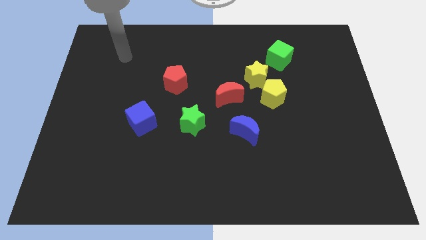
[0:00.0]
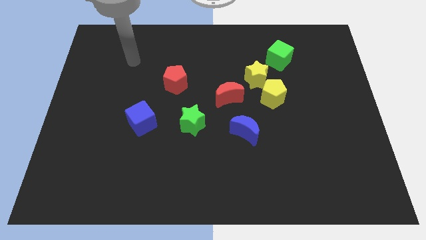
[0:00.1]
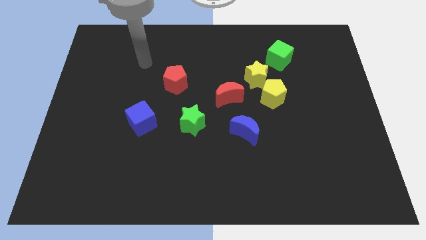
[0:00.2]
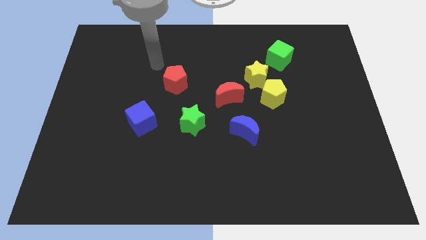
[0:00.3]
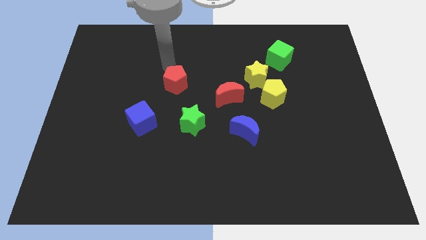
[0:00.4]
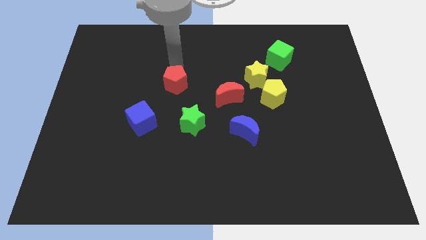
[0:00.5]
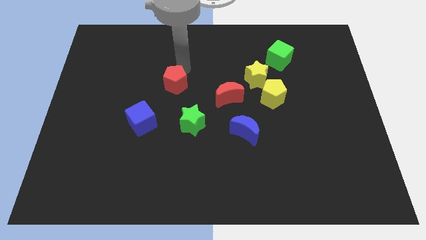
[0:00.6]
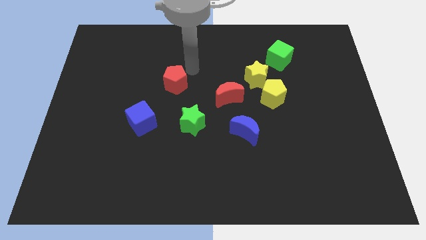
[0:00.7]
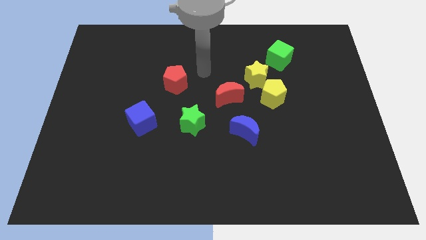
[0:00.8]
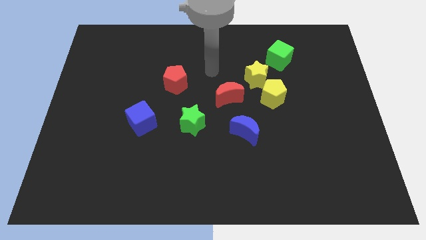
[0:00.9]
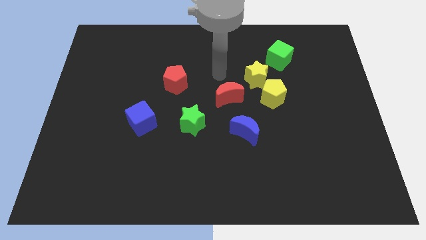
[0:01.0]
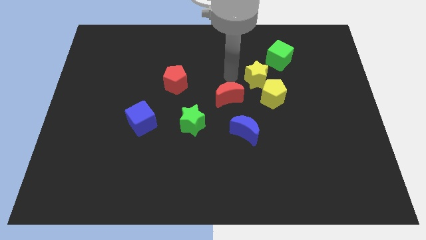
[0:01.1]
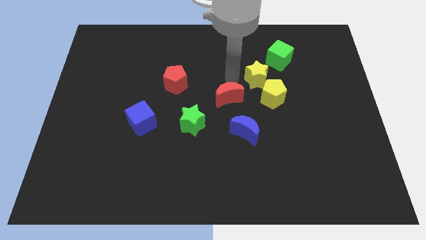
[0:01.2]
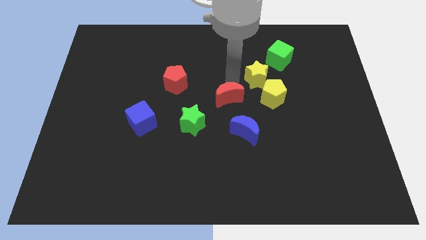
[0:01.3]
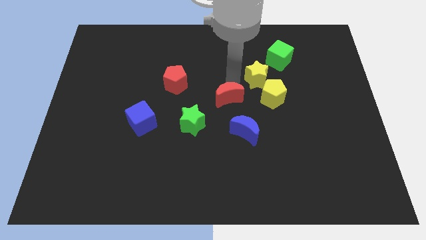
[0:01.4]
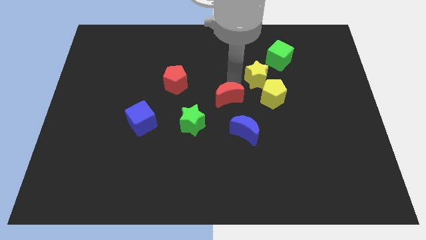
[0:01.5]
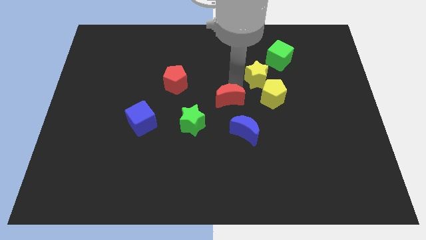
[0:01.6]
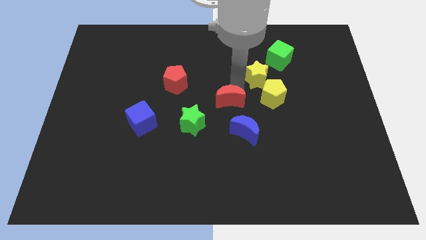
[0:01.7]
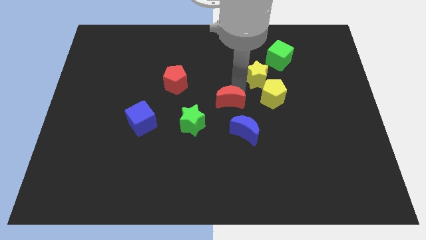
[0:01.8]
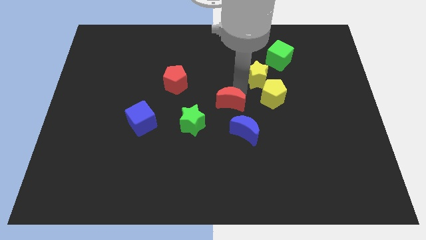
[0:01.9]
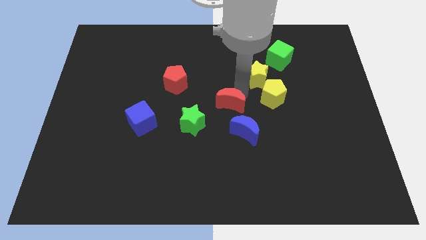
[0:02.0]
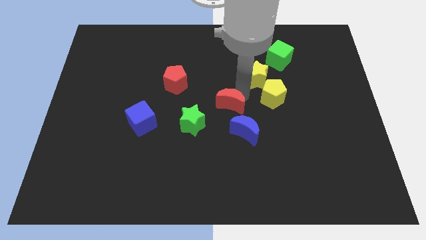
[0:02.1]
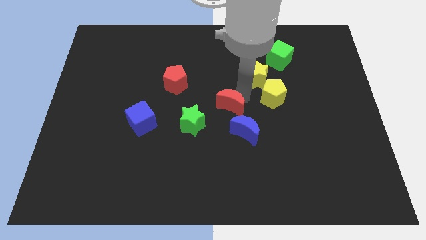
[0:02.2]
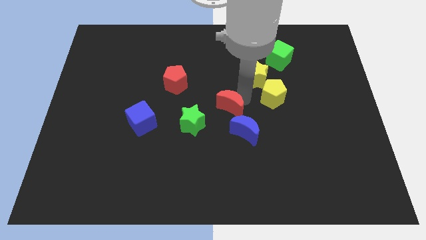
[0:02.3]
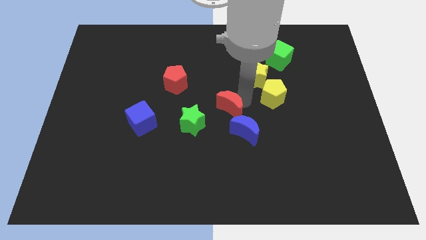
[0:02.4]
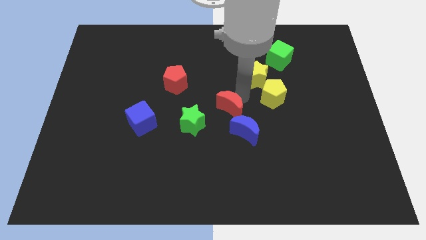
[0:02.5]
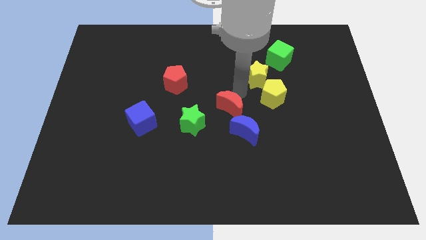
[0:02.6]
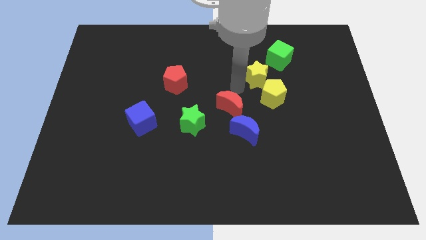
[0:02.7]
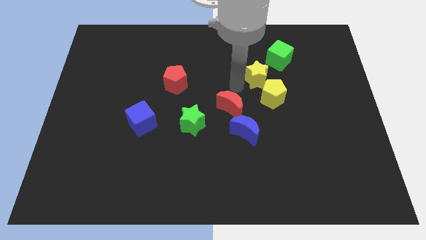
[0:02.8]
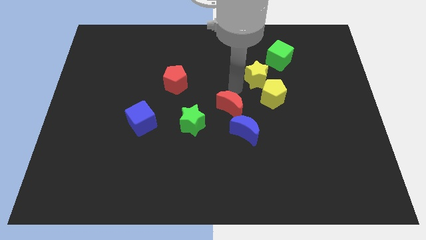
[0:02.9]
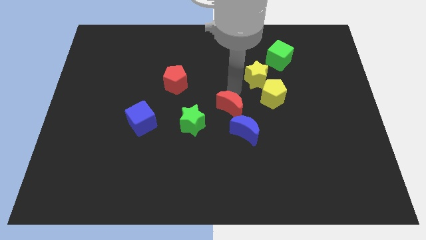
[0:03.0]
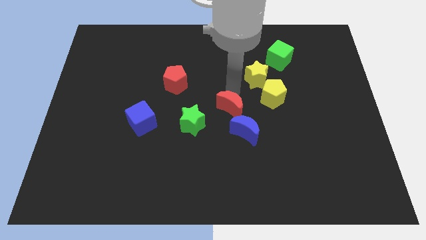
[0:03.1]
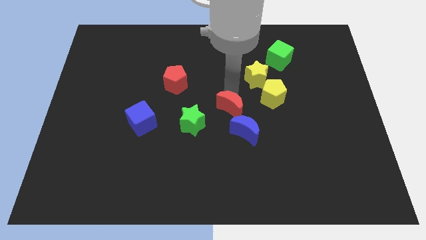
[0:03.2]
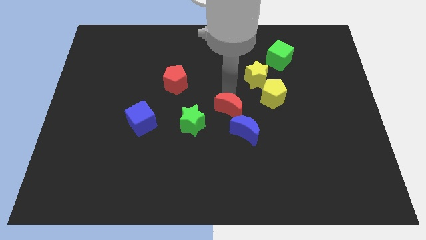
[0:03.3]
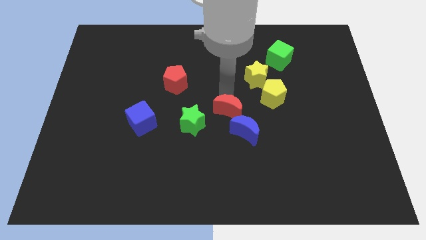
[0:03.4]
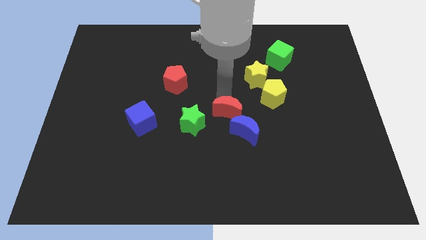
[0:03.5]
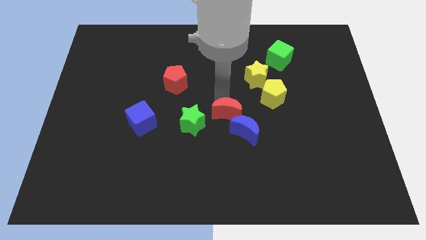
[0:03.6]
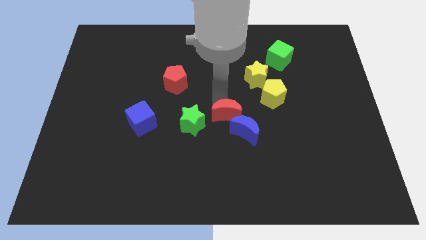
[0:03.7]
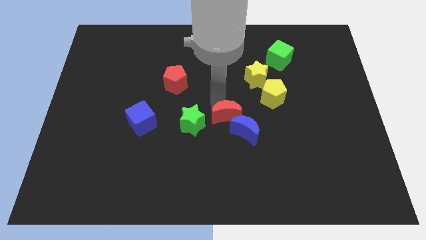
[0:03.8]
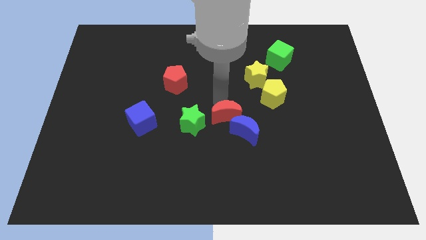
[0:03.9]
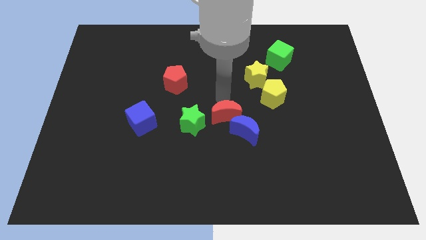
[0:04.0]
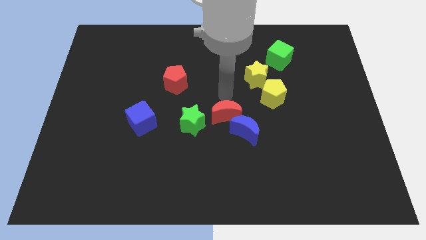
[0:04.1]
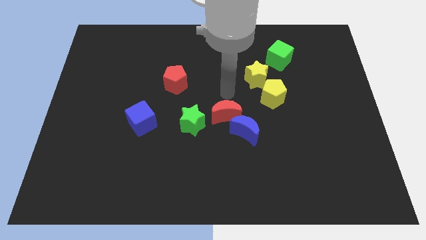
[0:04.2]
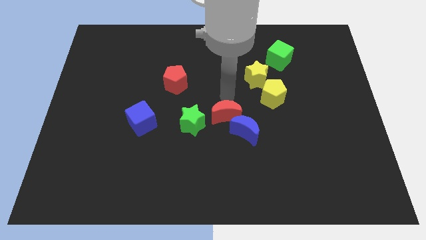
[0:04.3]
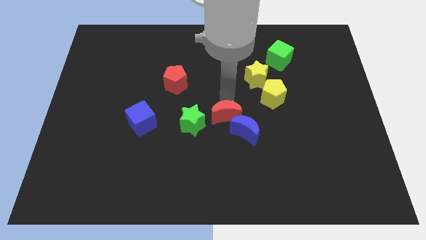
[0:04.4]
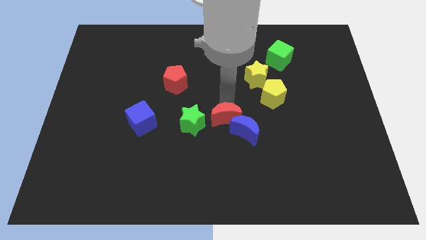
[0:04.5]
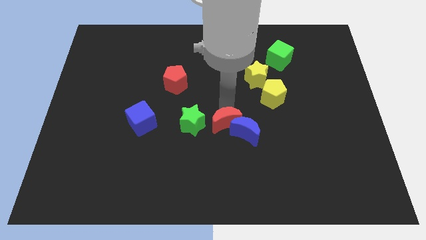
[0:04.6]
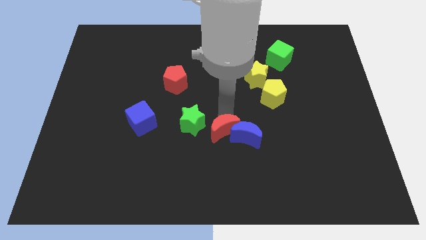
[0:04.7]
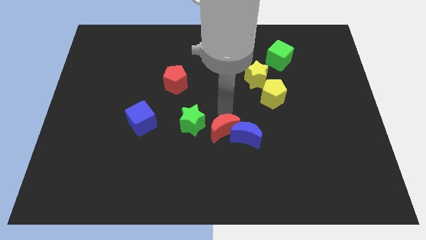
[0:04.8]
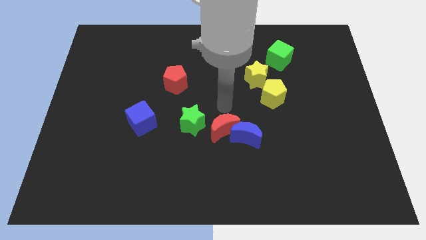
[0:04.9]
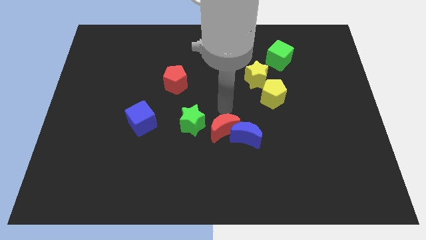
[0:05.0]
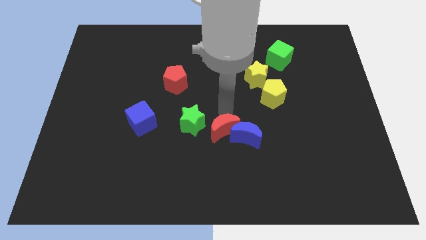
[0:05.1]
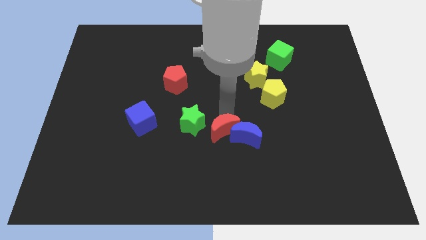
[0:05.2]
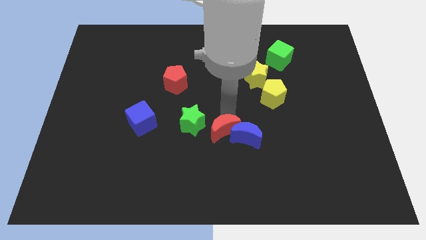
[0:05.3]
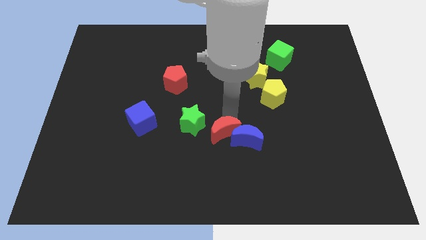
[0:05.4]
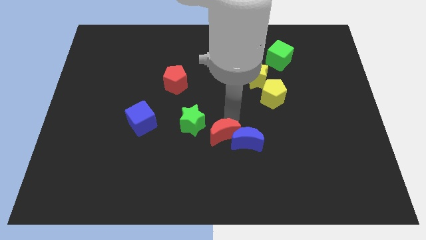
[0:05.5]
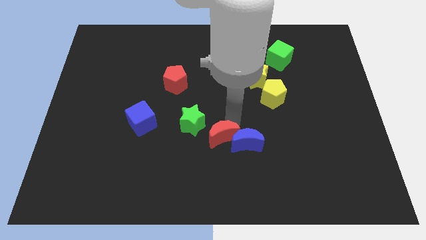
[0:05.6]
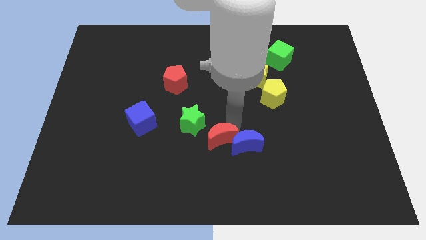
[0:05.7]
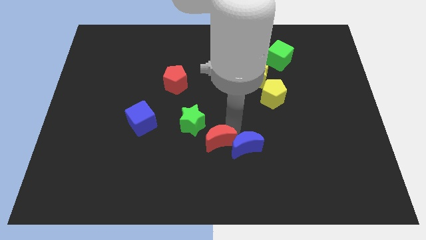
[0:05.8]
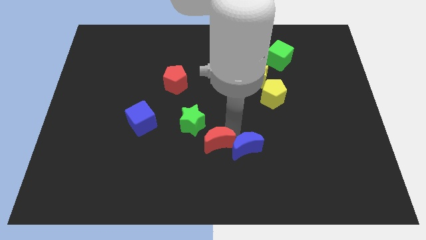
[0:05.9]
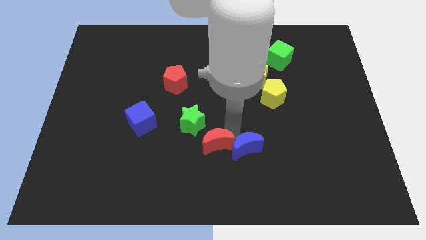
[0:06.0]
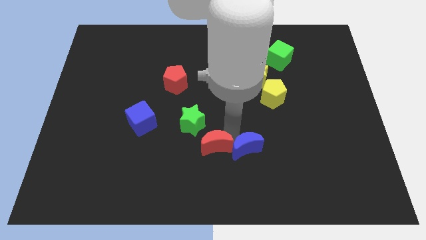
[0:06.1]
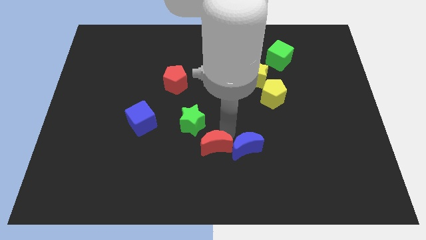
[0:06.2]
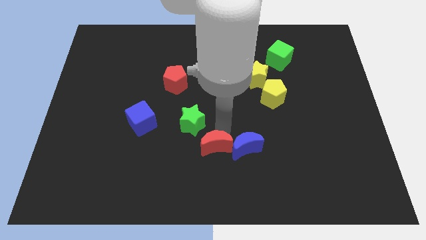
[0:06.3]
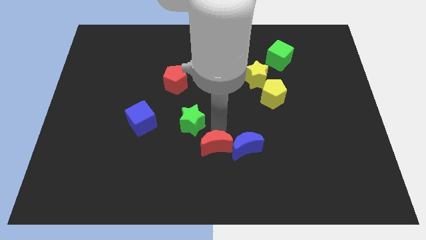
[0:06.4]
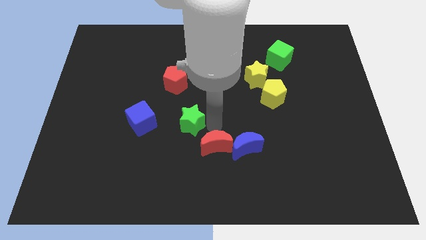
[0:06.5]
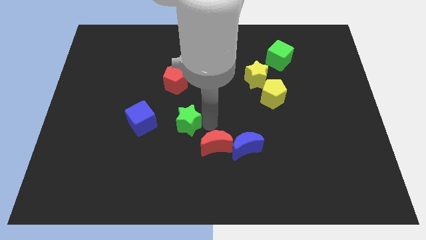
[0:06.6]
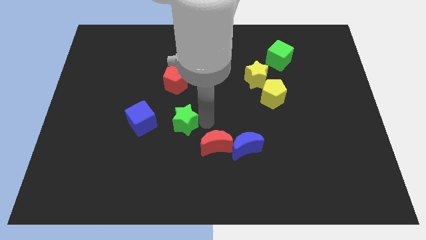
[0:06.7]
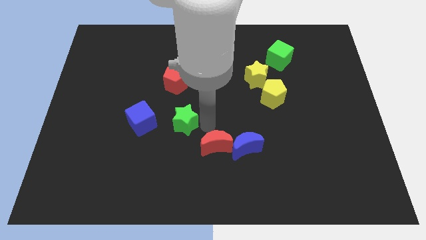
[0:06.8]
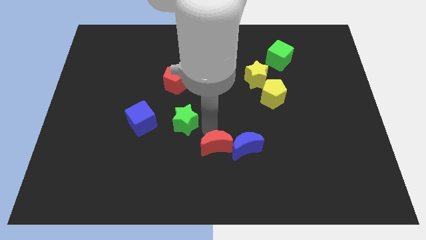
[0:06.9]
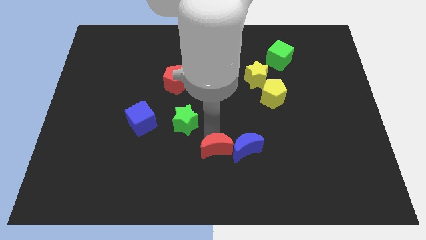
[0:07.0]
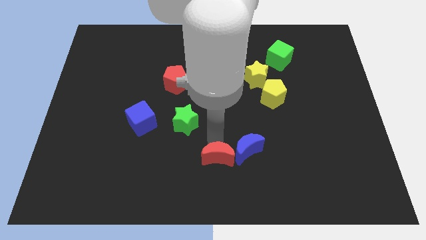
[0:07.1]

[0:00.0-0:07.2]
slide the red moon to the bottom
